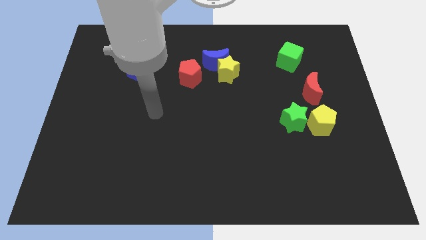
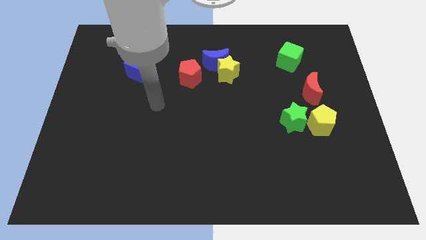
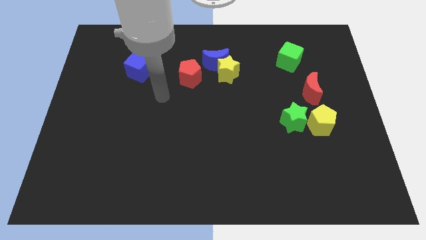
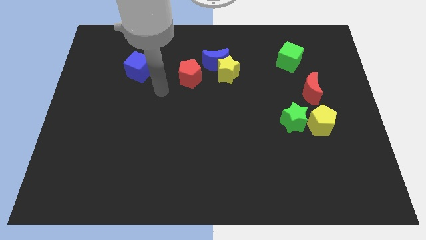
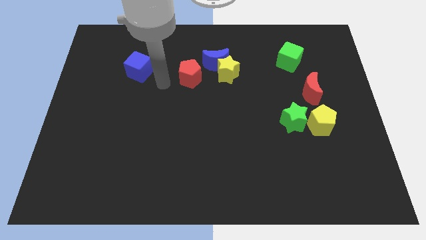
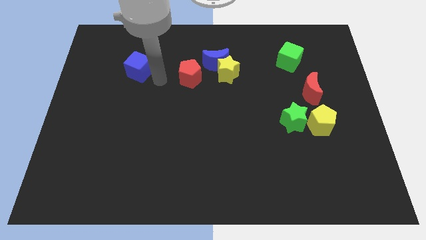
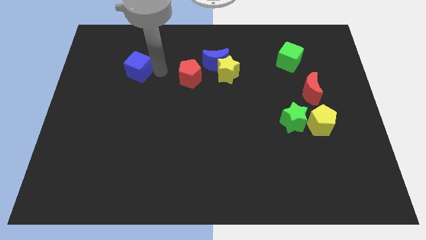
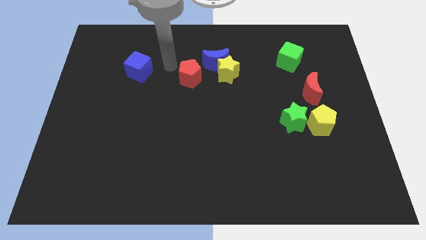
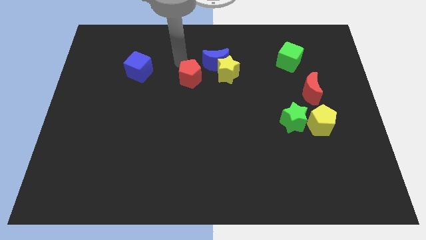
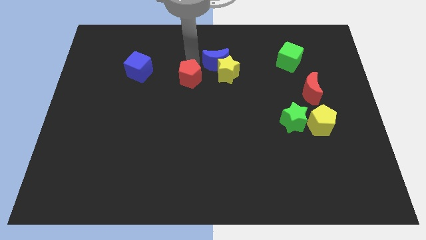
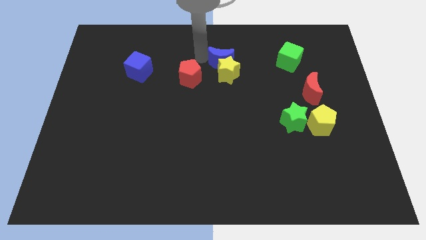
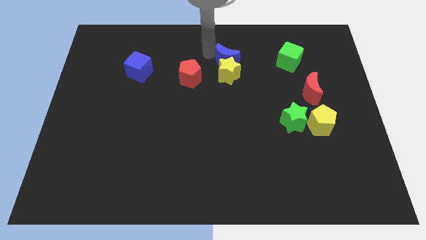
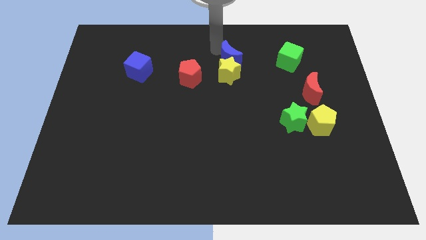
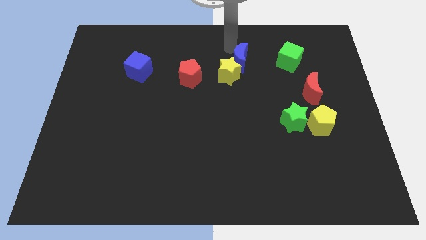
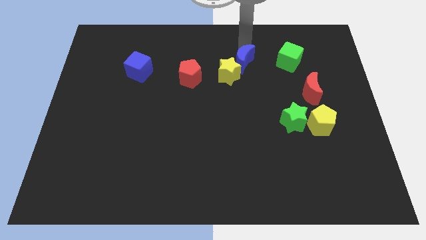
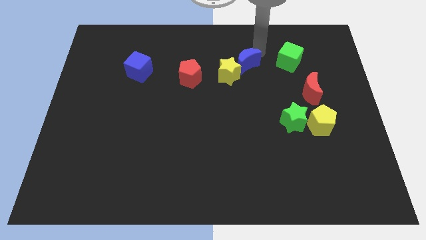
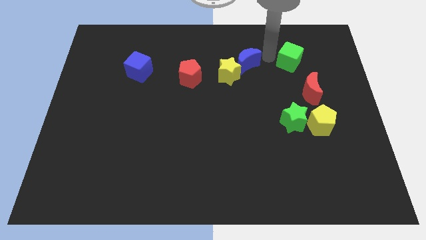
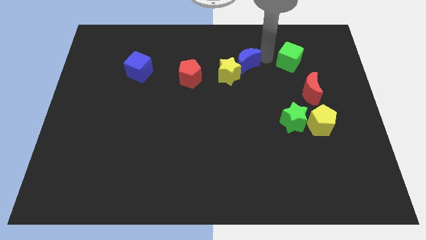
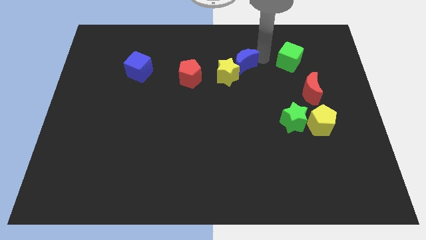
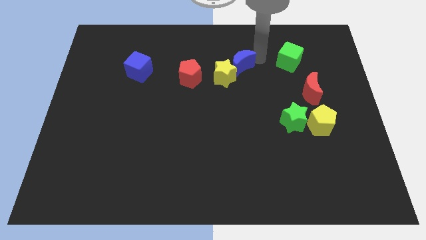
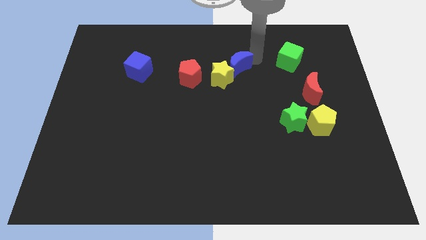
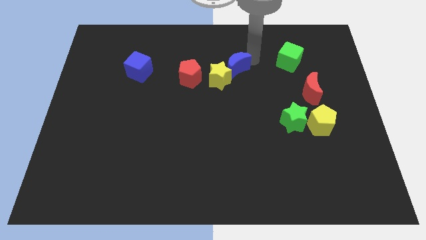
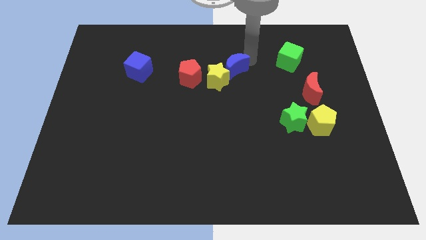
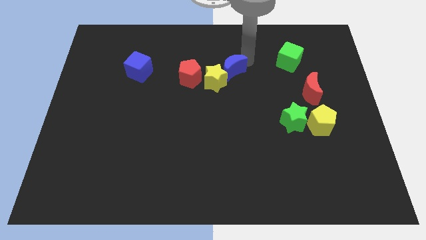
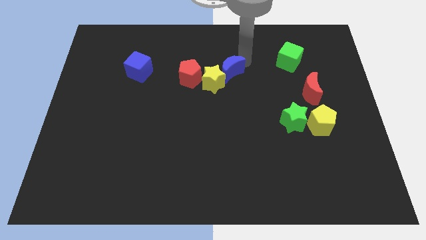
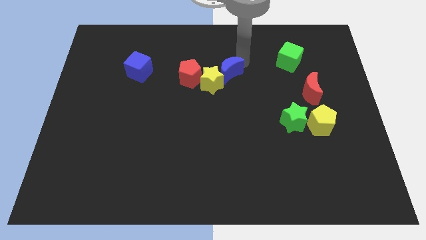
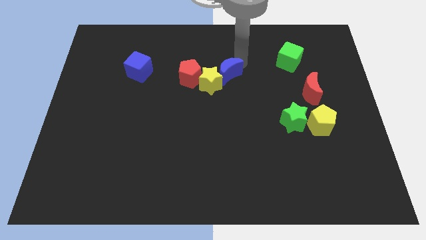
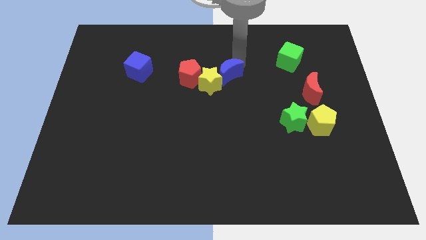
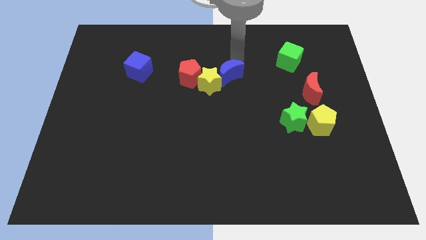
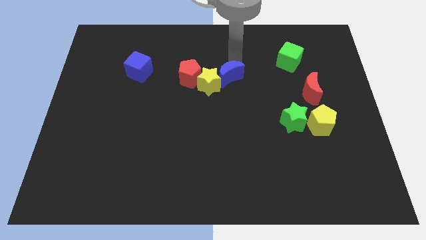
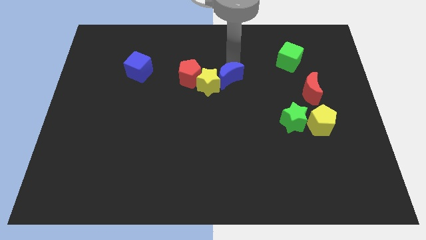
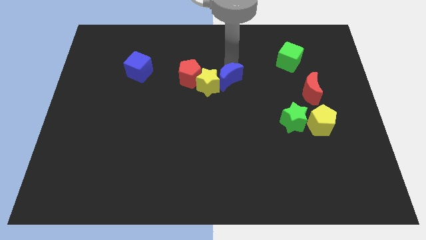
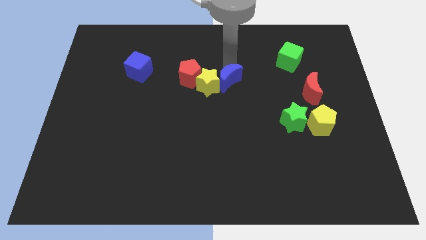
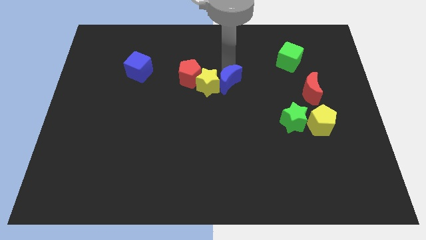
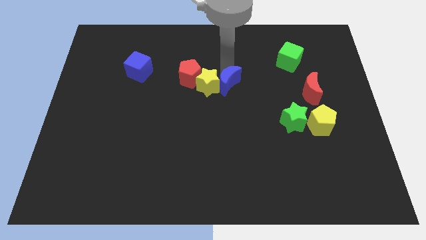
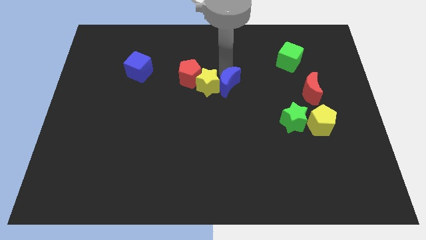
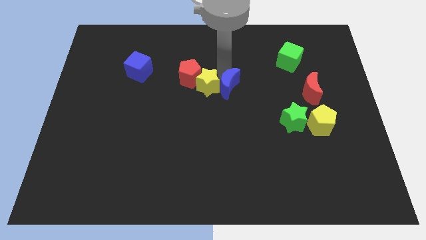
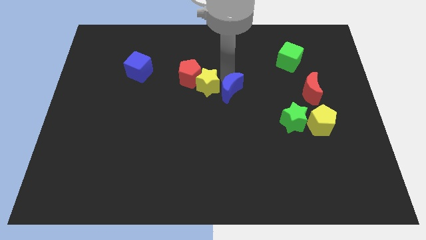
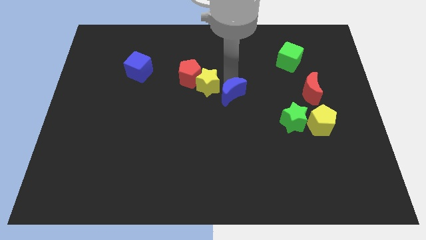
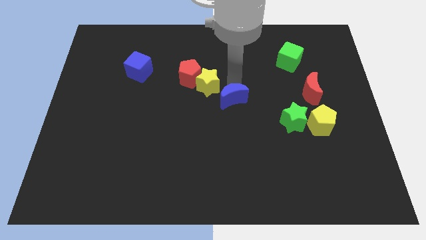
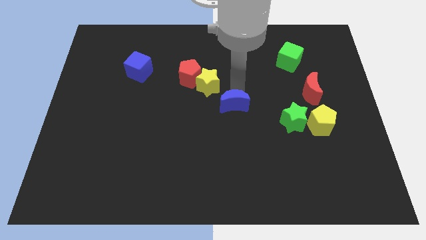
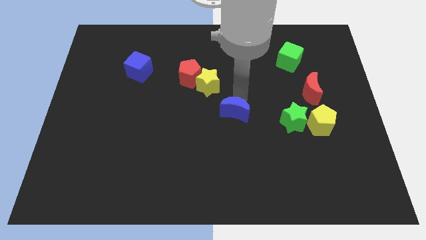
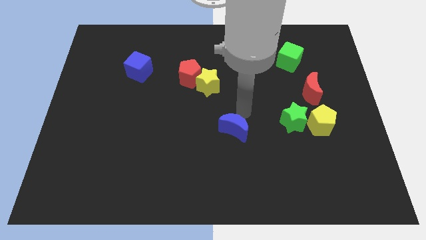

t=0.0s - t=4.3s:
move the blue moon down

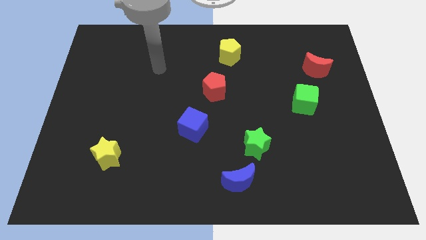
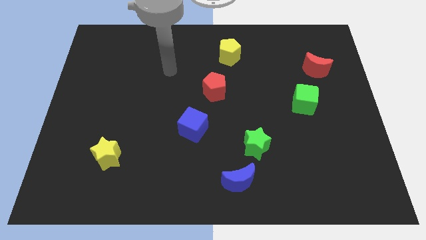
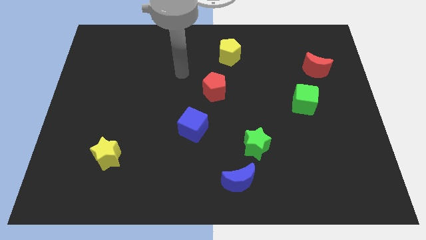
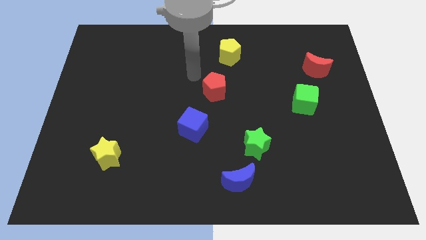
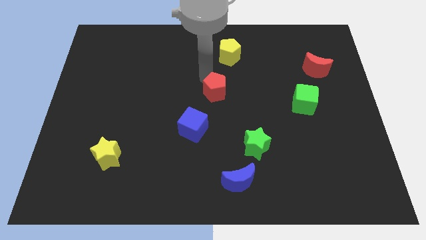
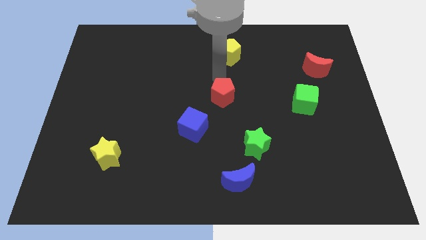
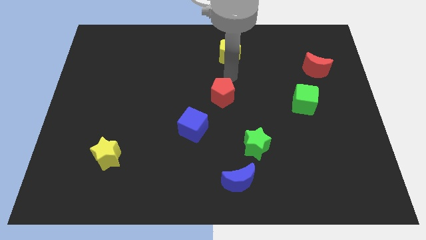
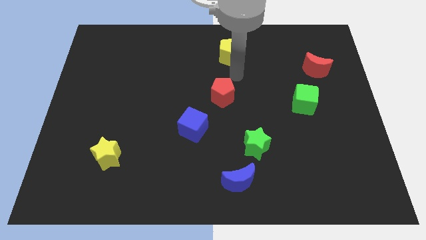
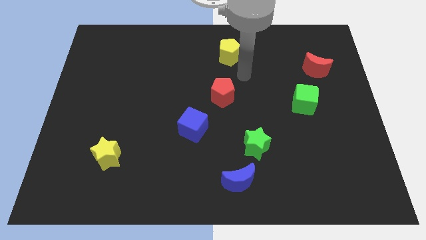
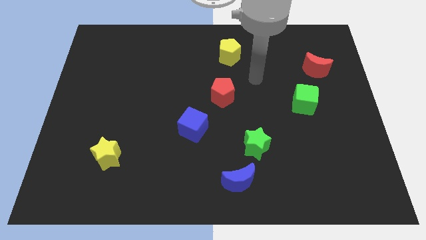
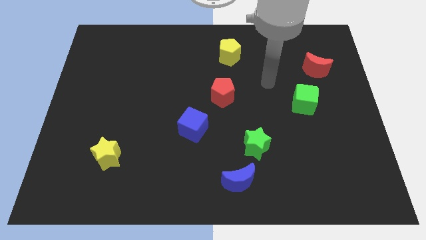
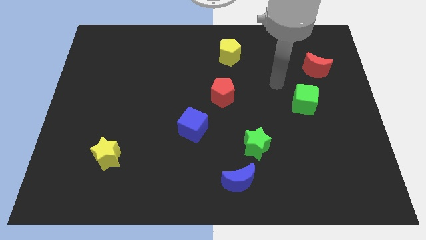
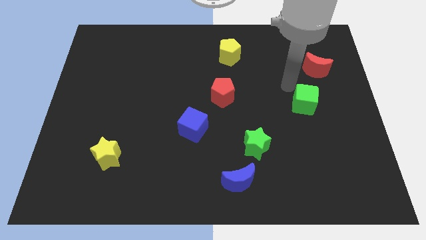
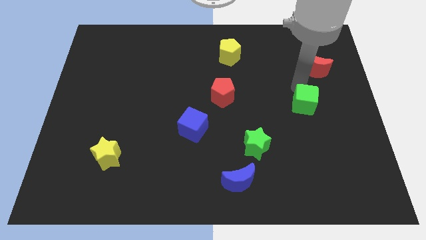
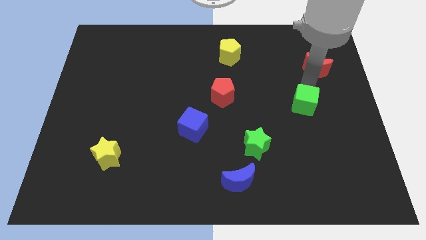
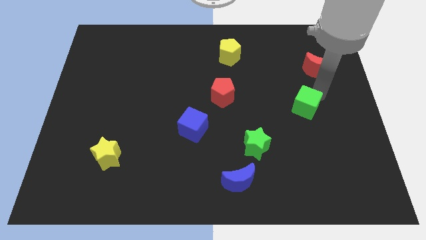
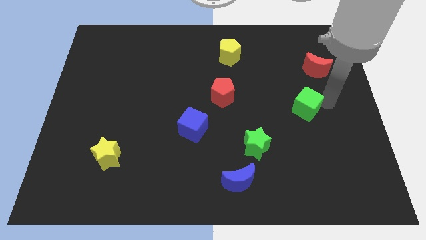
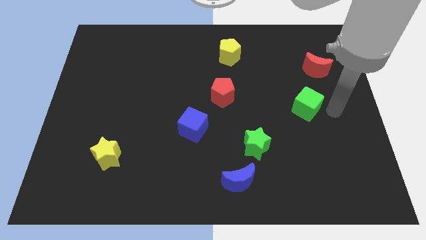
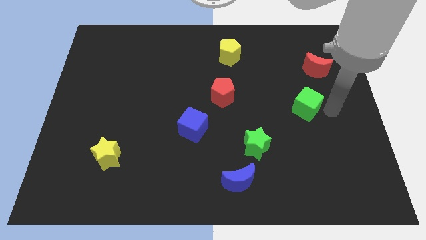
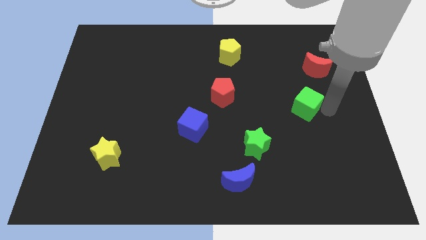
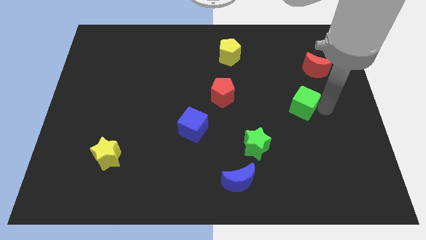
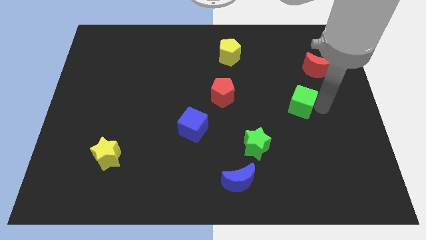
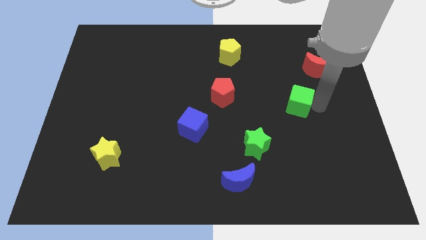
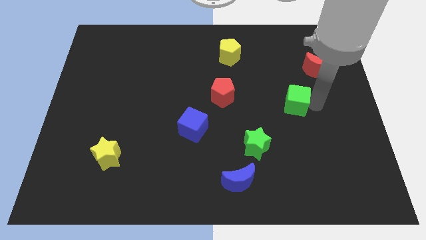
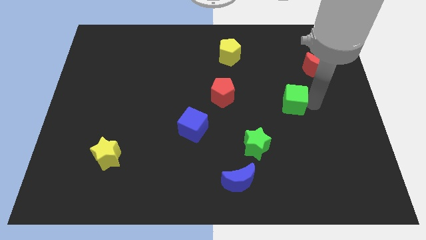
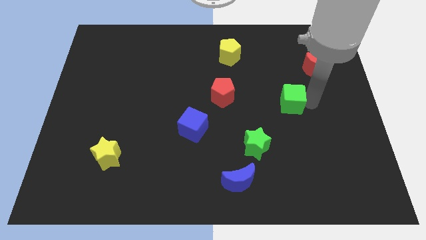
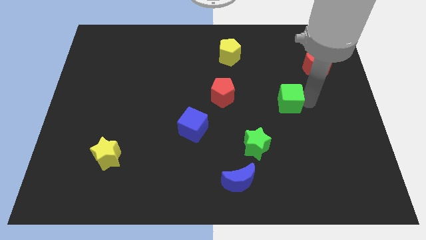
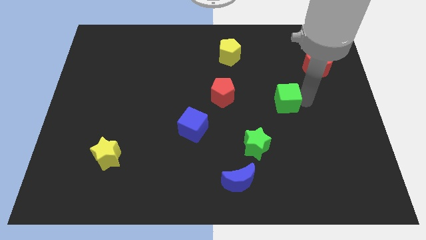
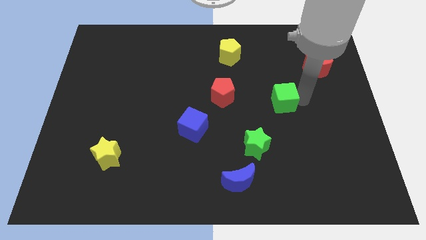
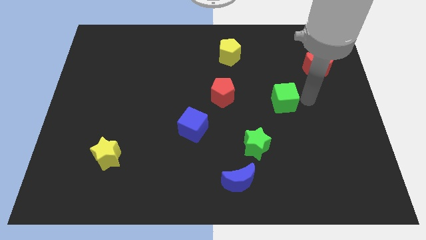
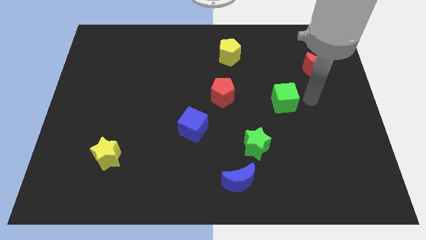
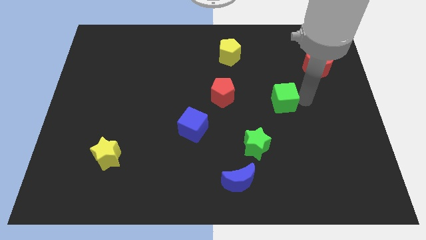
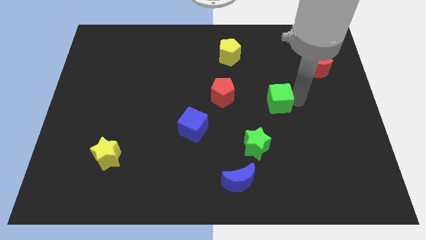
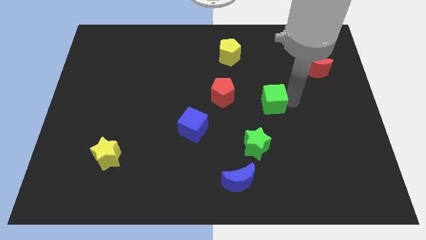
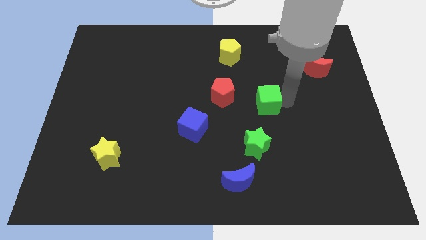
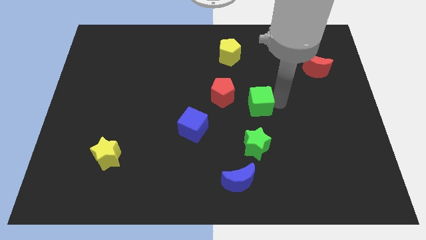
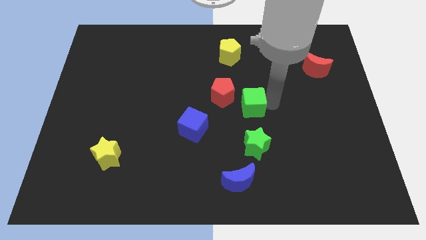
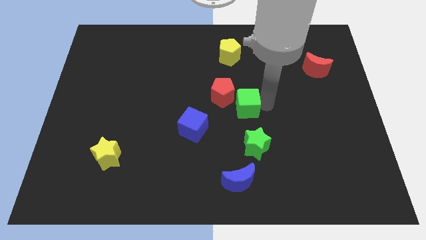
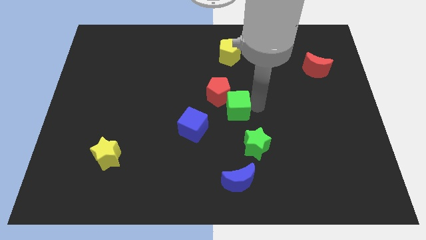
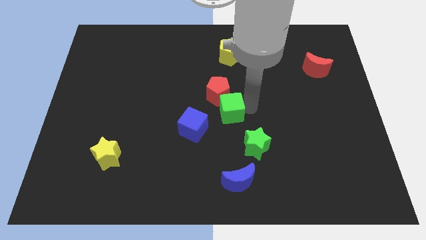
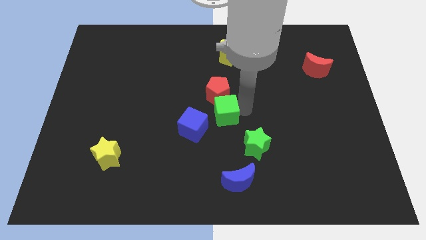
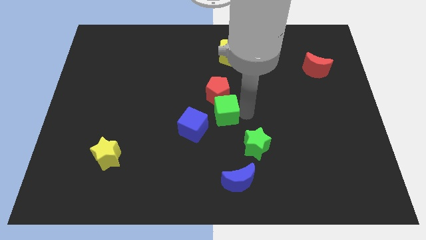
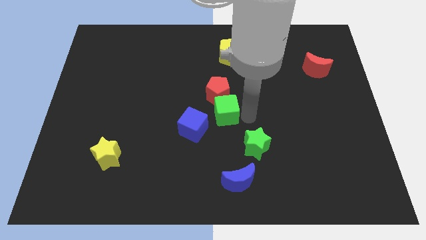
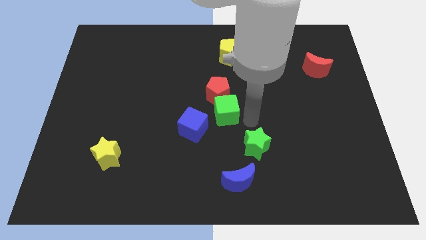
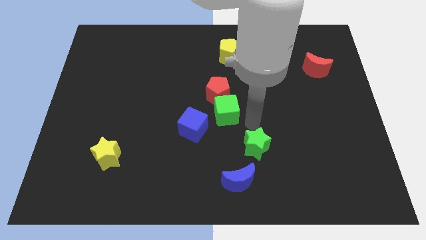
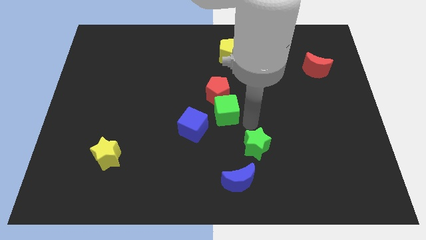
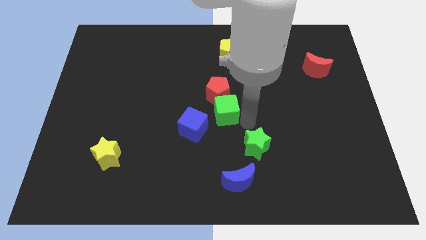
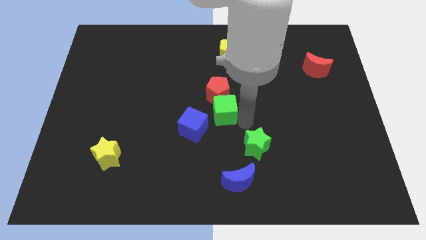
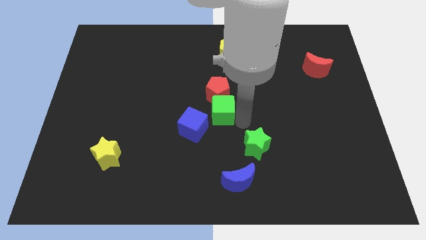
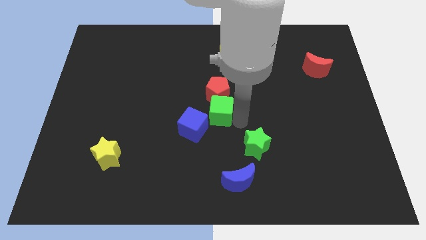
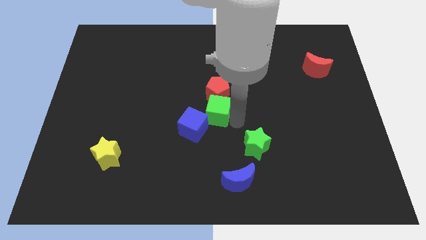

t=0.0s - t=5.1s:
push the green cube left
